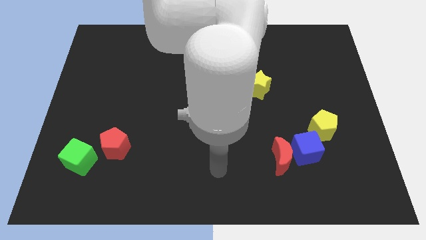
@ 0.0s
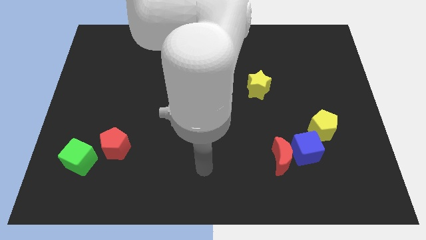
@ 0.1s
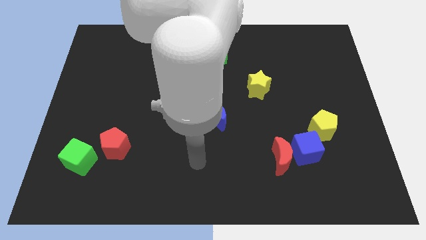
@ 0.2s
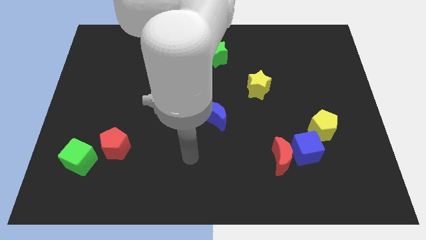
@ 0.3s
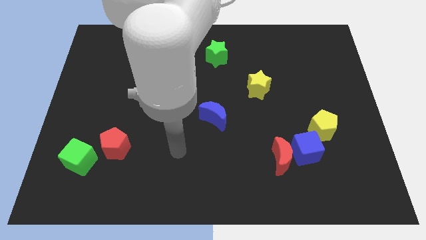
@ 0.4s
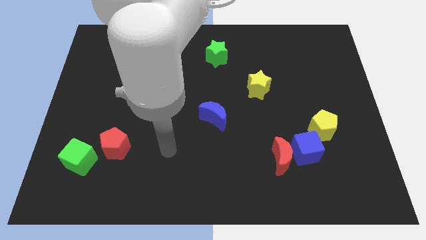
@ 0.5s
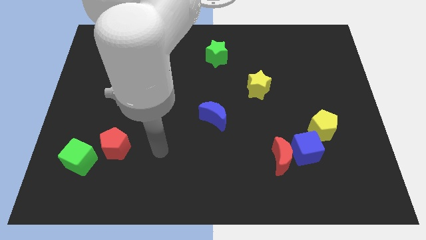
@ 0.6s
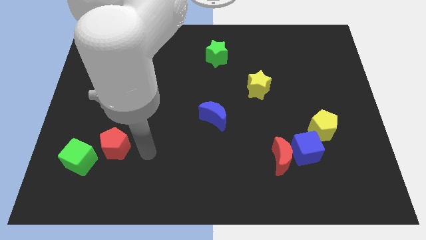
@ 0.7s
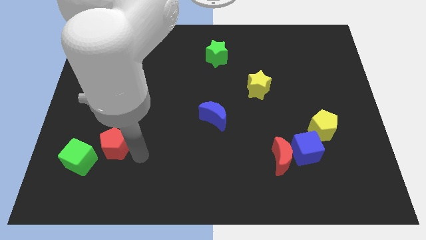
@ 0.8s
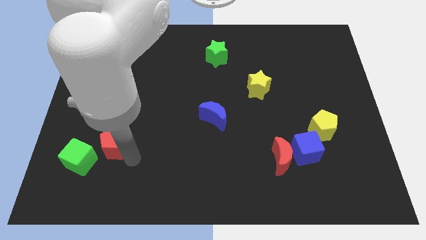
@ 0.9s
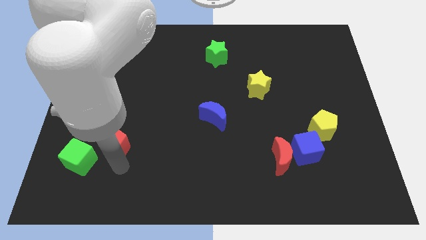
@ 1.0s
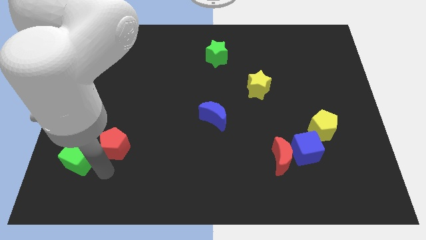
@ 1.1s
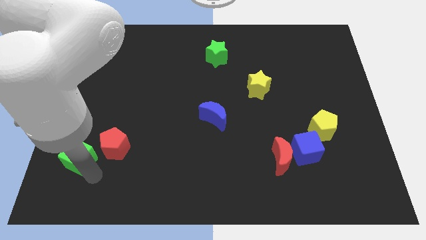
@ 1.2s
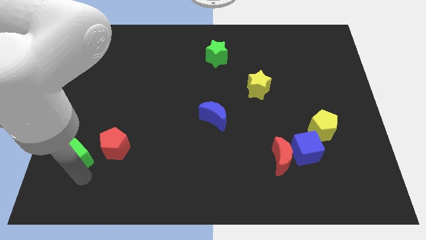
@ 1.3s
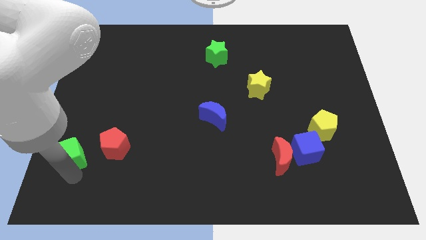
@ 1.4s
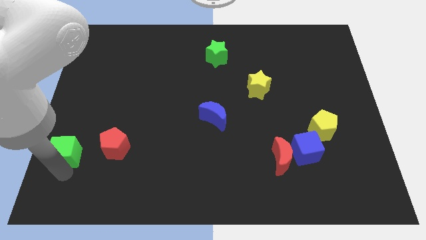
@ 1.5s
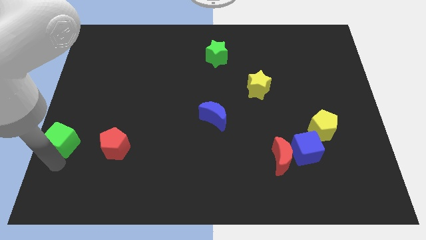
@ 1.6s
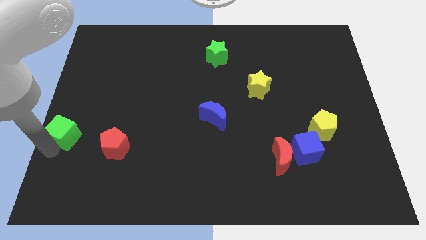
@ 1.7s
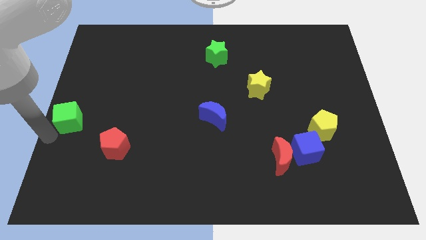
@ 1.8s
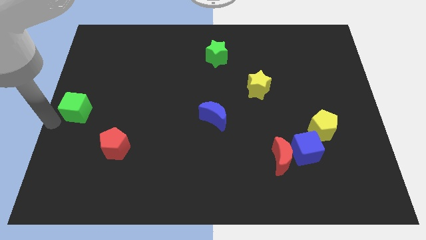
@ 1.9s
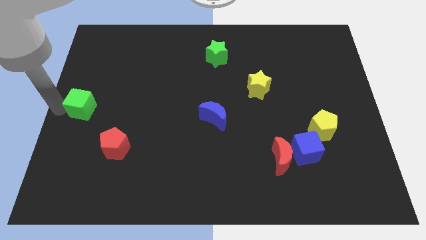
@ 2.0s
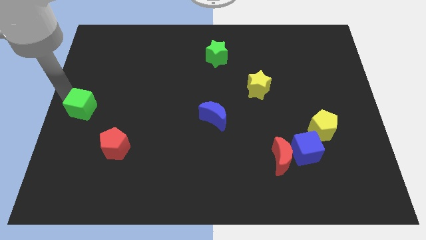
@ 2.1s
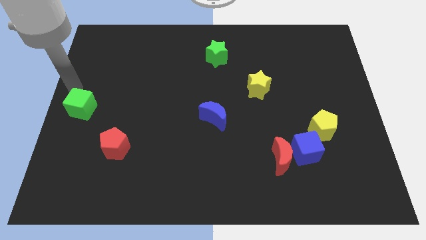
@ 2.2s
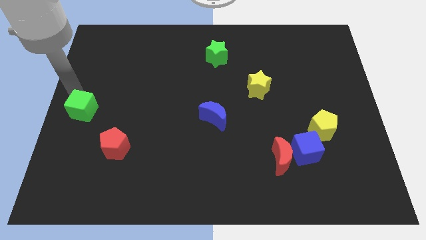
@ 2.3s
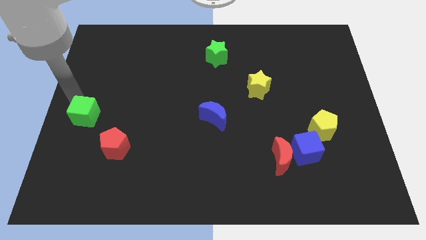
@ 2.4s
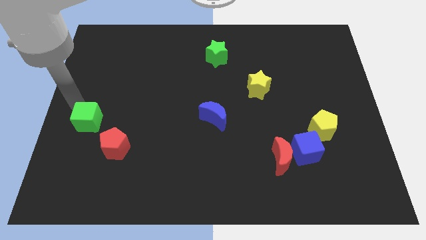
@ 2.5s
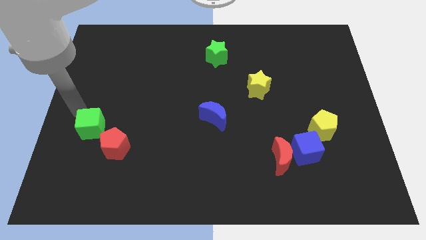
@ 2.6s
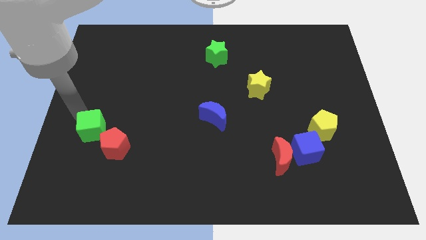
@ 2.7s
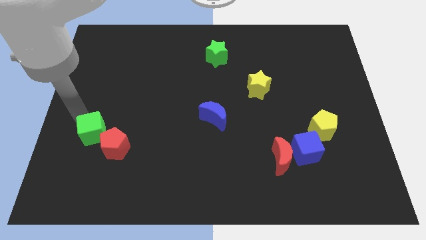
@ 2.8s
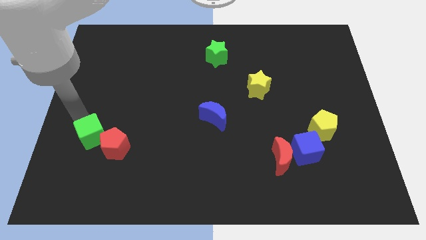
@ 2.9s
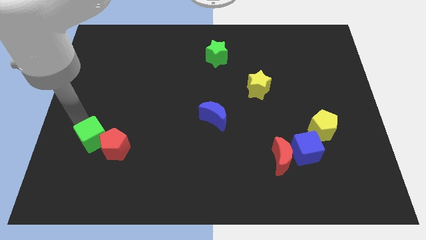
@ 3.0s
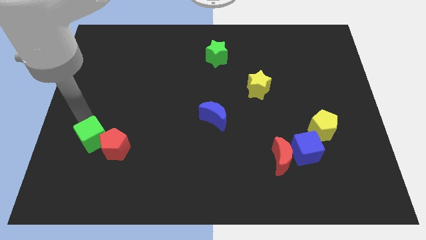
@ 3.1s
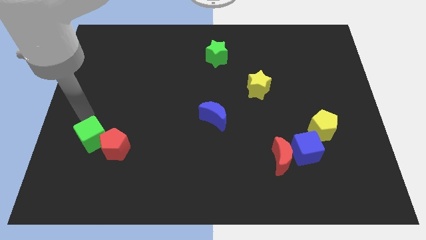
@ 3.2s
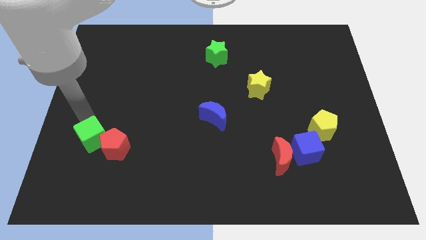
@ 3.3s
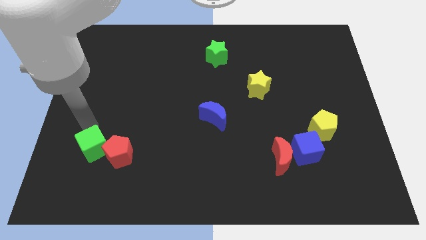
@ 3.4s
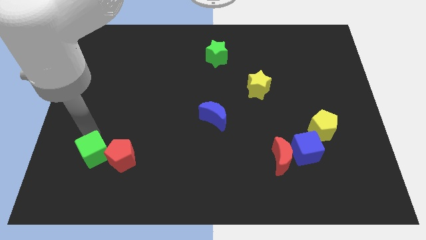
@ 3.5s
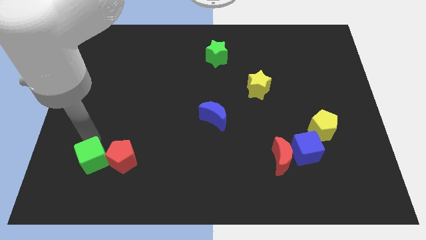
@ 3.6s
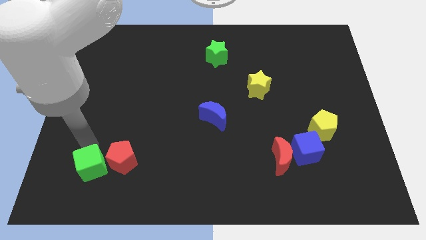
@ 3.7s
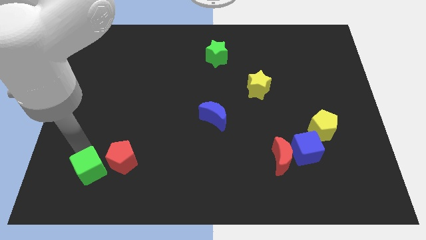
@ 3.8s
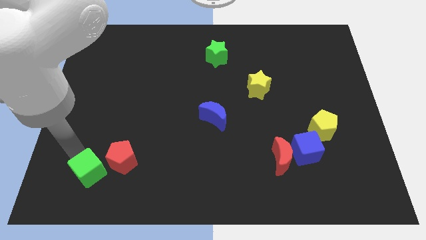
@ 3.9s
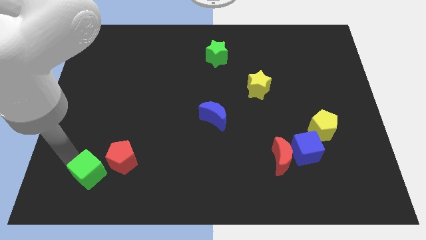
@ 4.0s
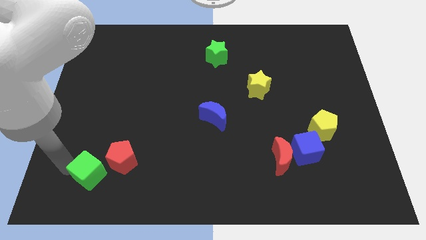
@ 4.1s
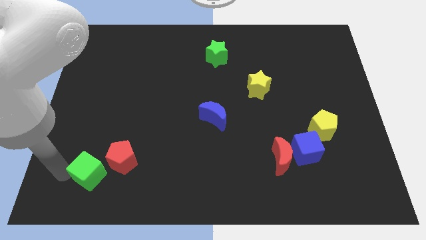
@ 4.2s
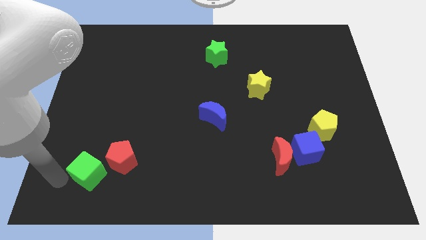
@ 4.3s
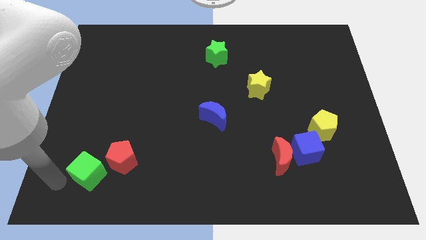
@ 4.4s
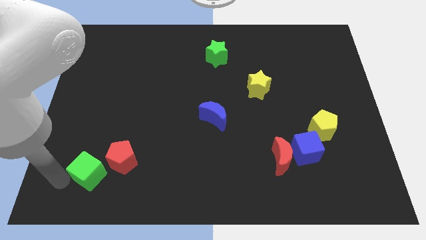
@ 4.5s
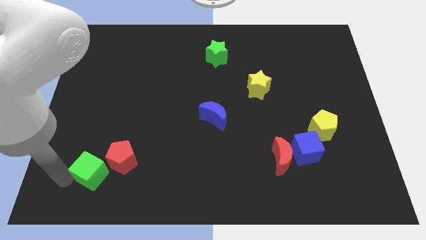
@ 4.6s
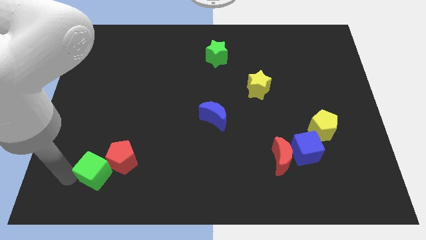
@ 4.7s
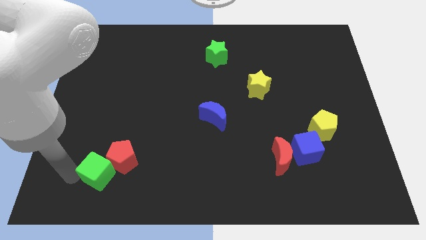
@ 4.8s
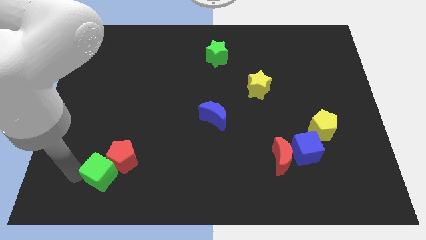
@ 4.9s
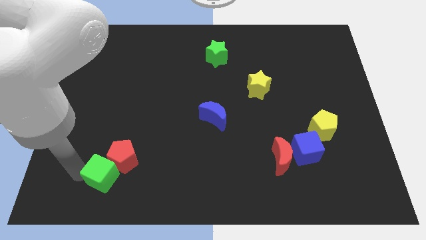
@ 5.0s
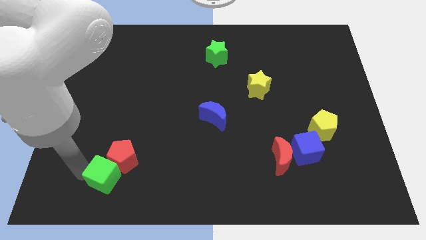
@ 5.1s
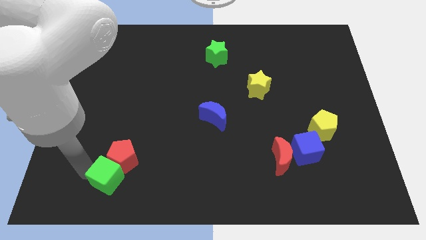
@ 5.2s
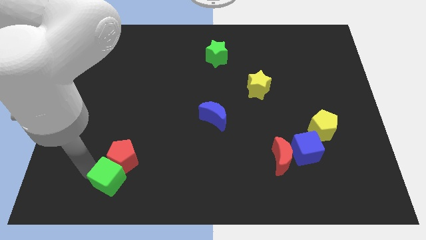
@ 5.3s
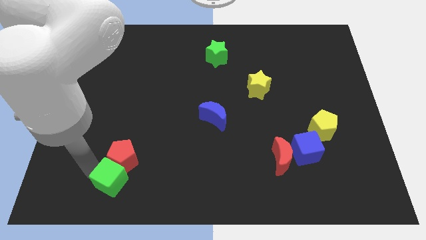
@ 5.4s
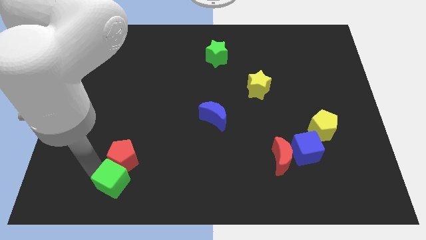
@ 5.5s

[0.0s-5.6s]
slightly push the green cube right

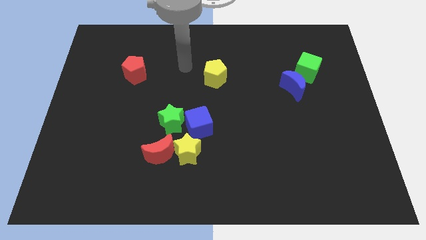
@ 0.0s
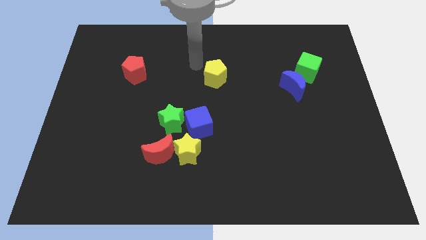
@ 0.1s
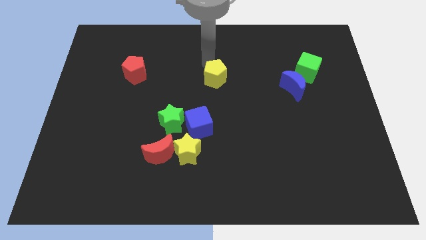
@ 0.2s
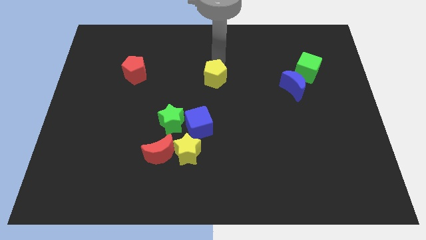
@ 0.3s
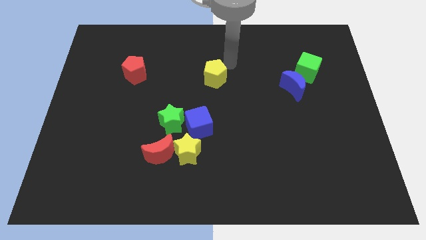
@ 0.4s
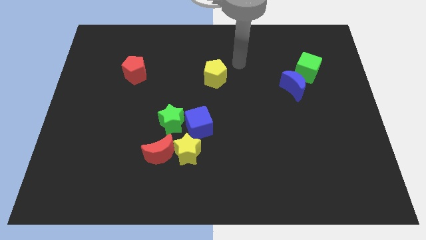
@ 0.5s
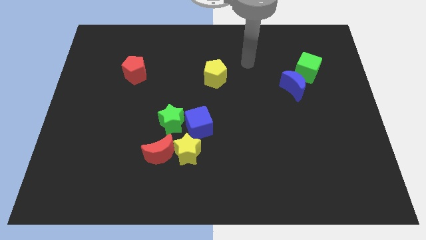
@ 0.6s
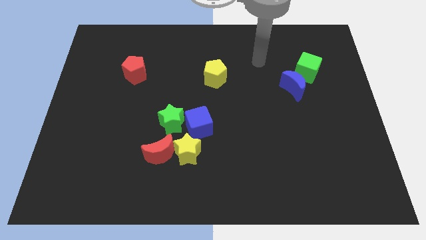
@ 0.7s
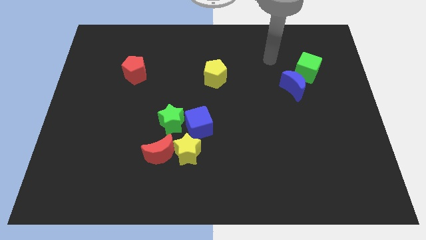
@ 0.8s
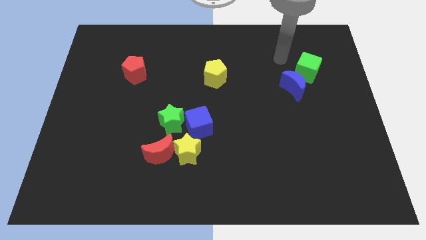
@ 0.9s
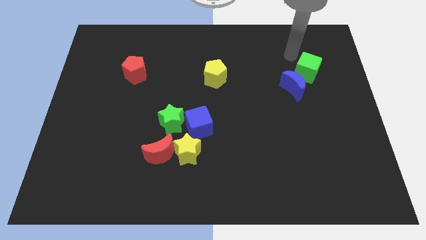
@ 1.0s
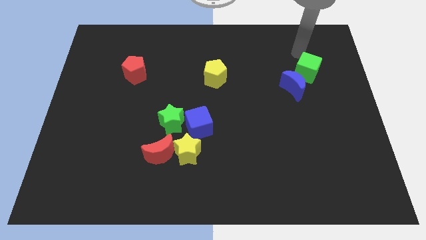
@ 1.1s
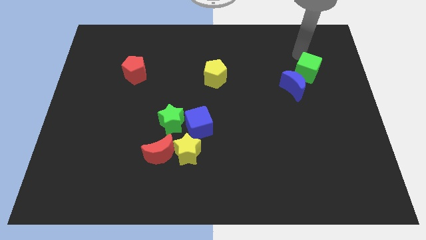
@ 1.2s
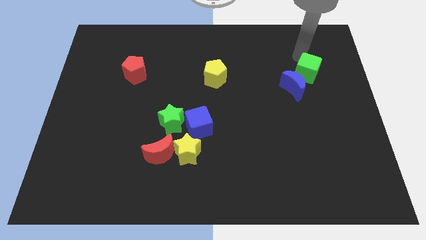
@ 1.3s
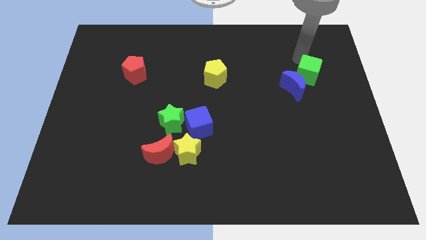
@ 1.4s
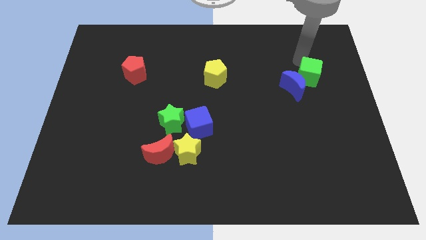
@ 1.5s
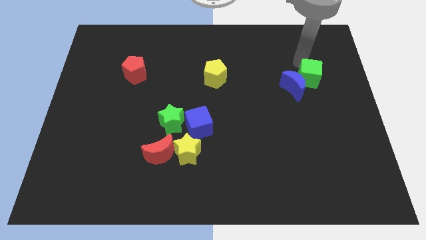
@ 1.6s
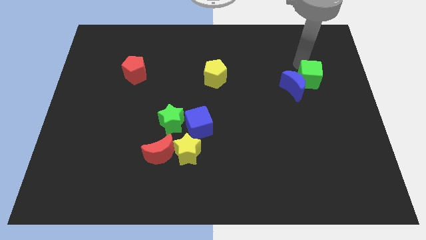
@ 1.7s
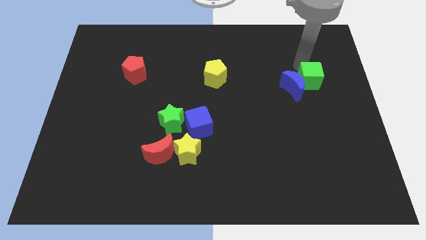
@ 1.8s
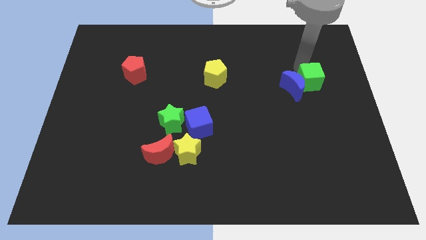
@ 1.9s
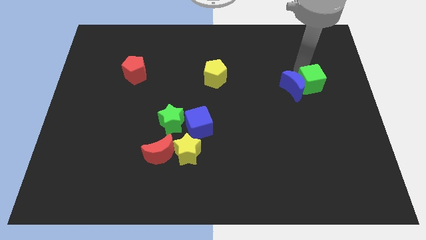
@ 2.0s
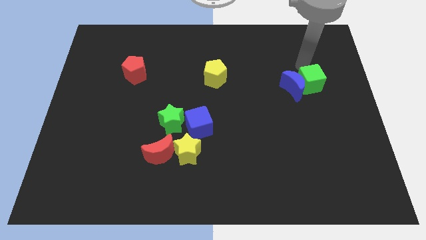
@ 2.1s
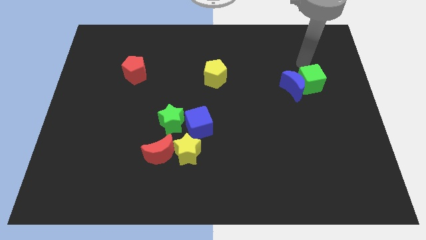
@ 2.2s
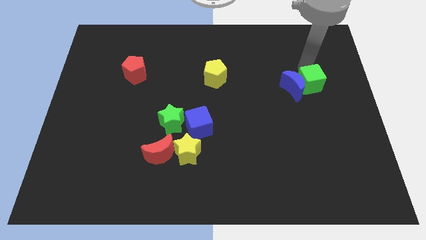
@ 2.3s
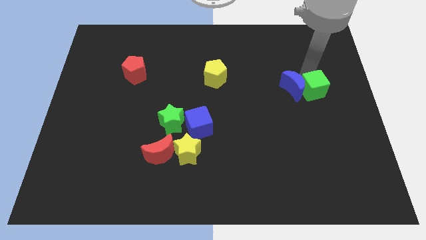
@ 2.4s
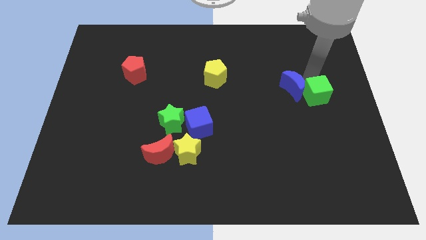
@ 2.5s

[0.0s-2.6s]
push the green cube a little down
